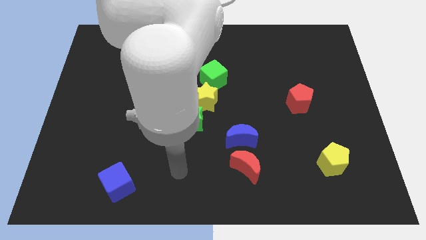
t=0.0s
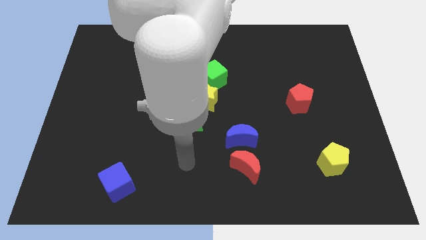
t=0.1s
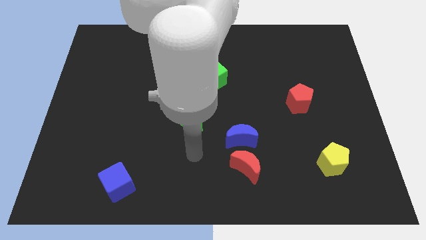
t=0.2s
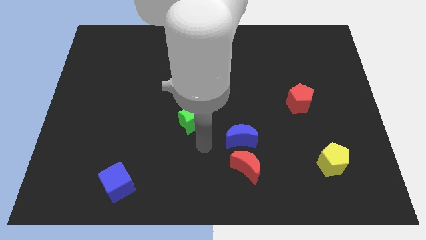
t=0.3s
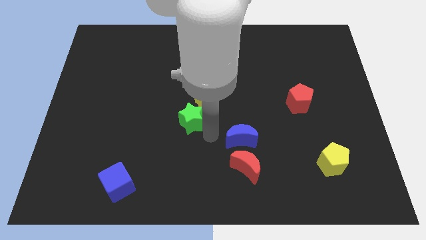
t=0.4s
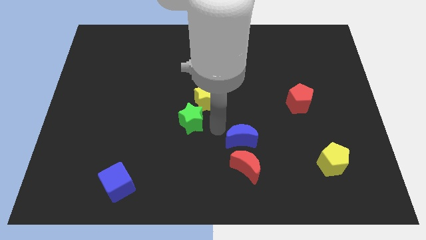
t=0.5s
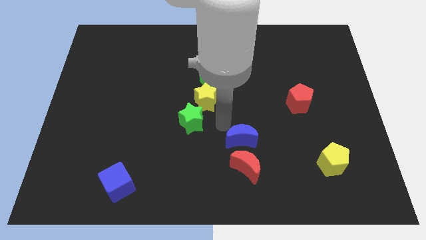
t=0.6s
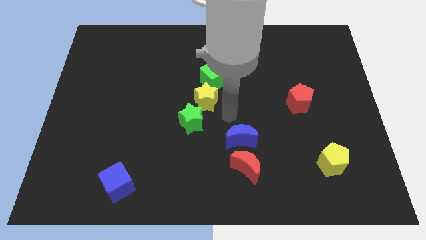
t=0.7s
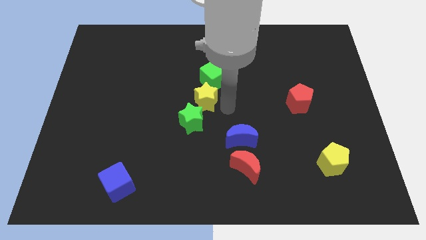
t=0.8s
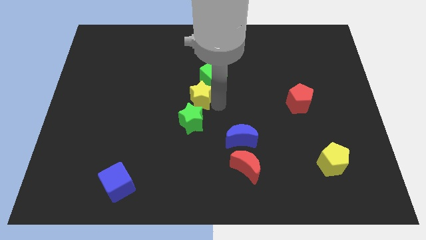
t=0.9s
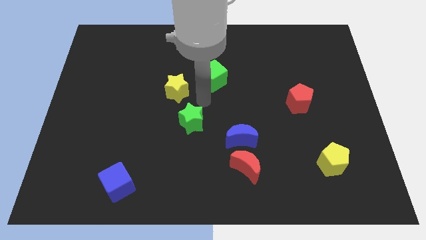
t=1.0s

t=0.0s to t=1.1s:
pull the green star apart from the yellow star

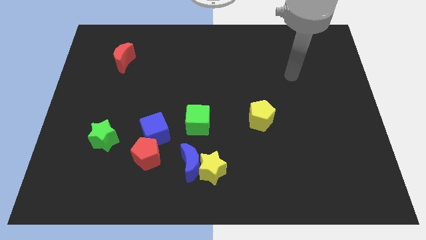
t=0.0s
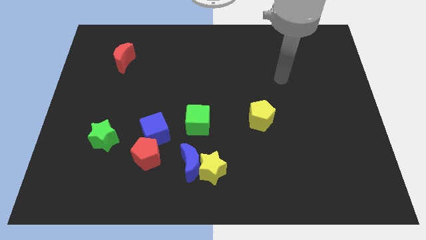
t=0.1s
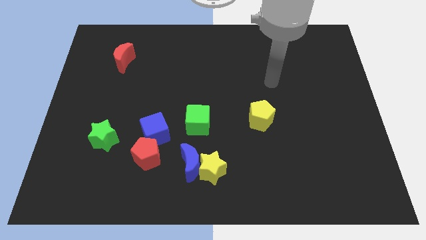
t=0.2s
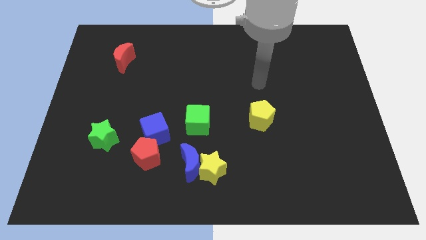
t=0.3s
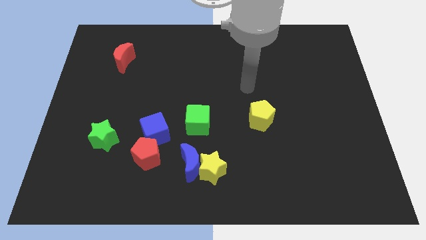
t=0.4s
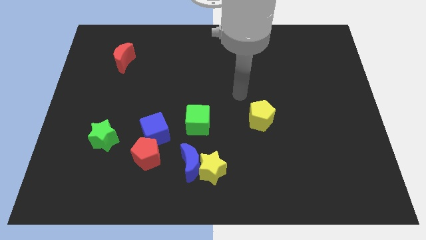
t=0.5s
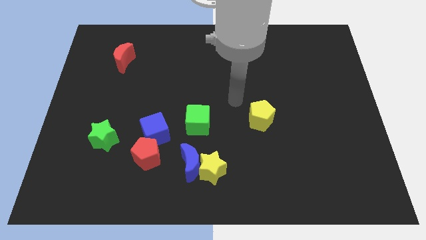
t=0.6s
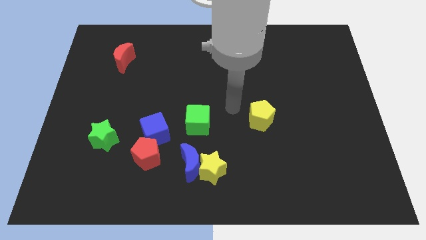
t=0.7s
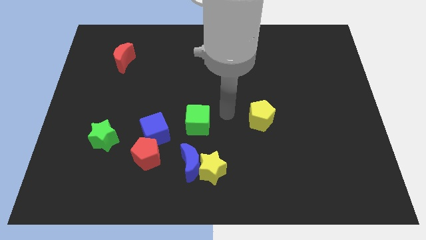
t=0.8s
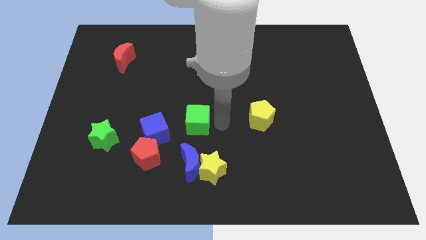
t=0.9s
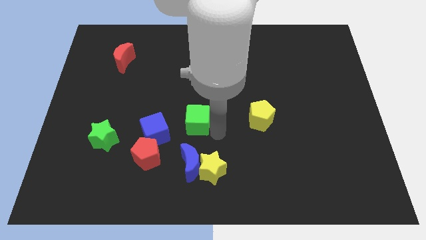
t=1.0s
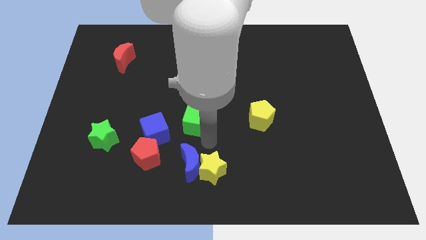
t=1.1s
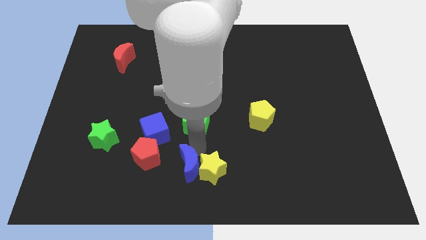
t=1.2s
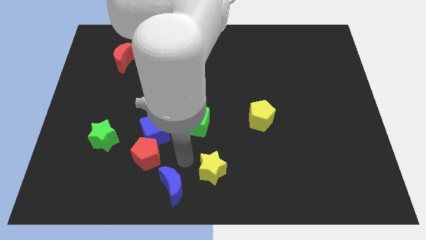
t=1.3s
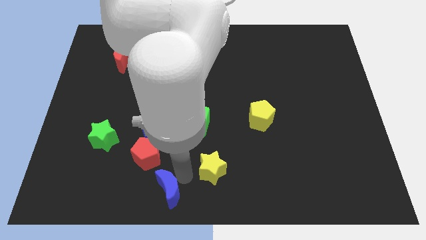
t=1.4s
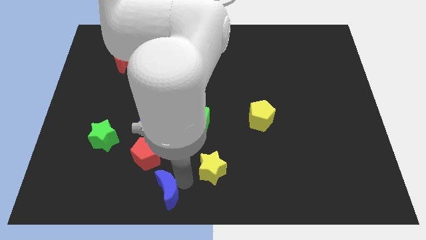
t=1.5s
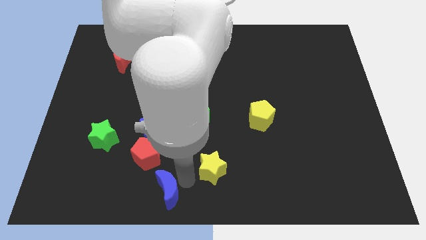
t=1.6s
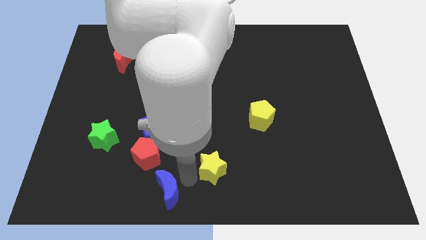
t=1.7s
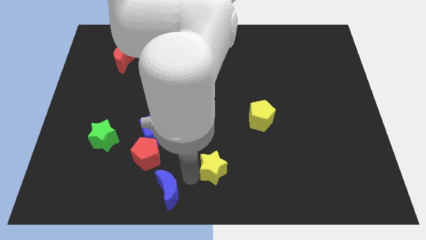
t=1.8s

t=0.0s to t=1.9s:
move the yellow star away from the blue moon

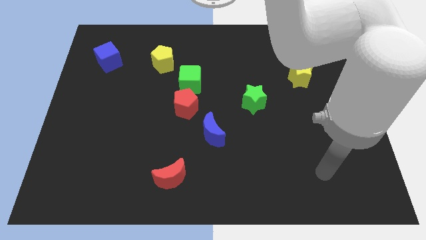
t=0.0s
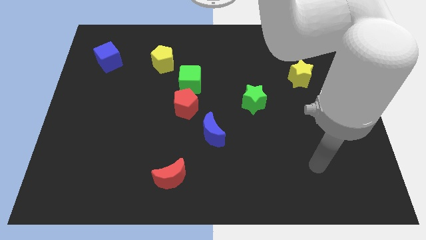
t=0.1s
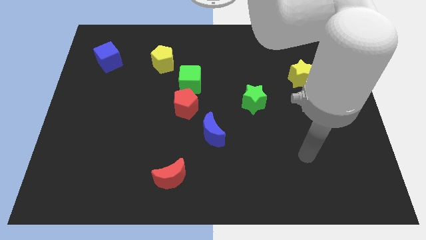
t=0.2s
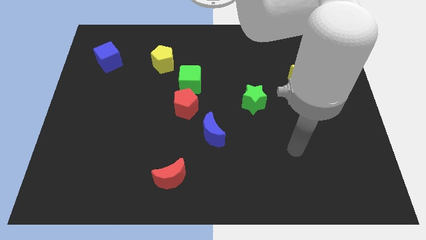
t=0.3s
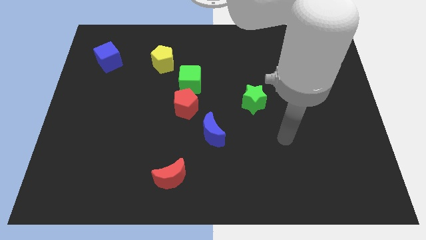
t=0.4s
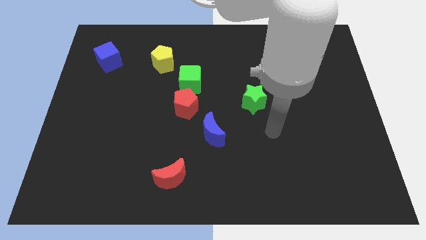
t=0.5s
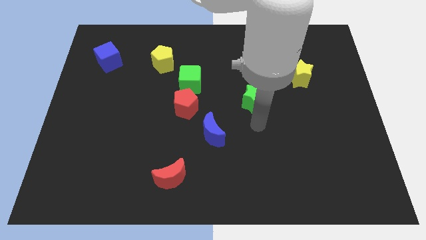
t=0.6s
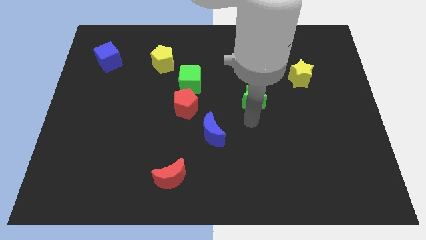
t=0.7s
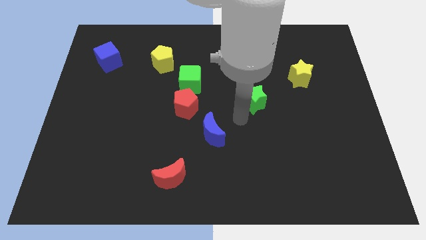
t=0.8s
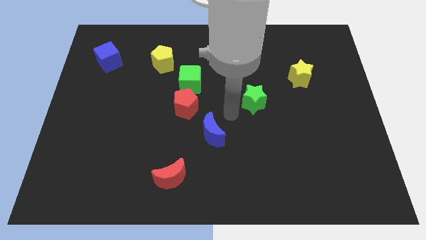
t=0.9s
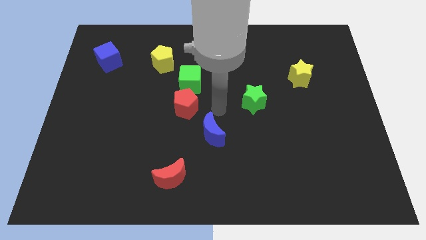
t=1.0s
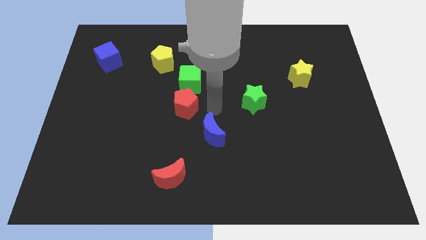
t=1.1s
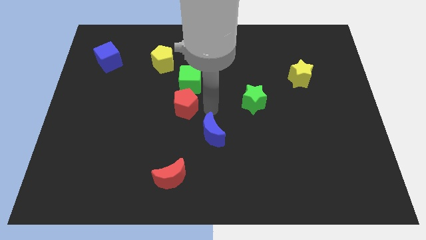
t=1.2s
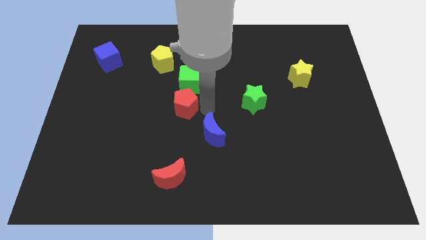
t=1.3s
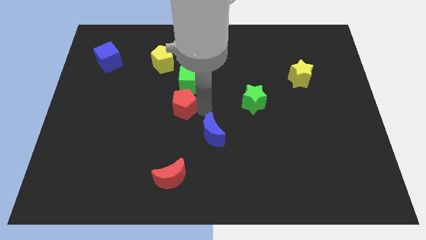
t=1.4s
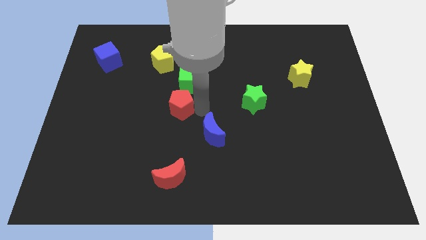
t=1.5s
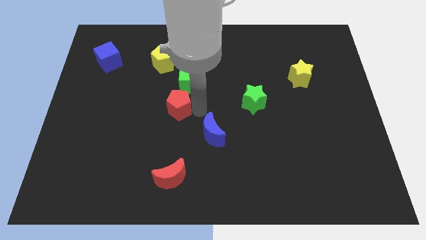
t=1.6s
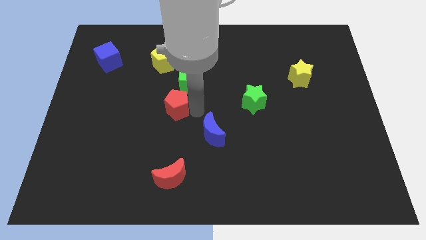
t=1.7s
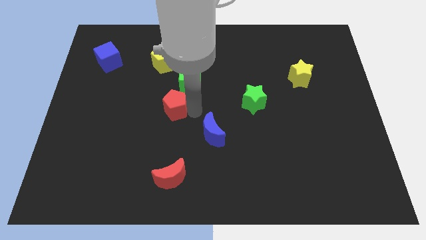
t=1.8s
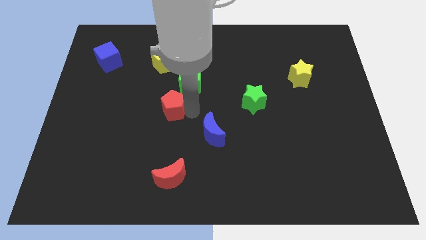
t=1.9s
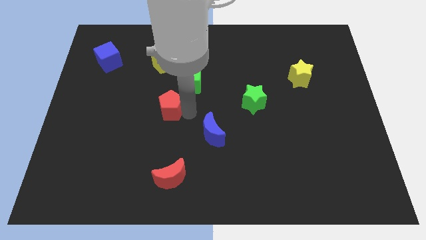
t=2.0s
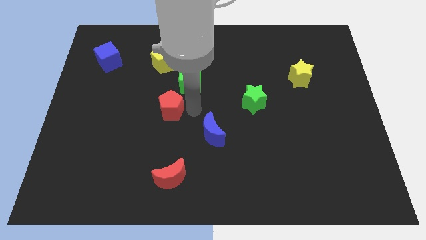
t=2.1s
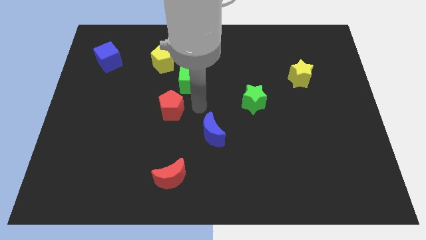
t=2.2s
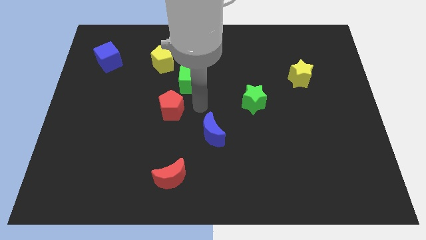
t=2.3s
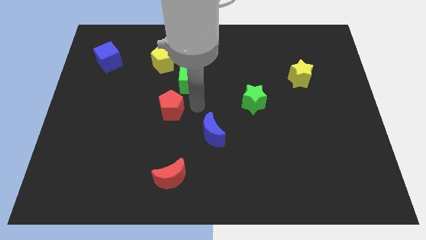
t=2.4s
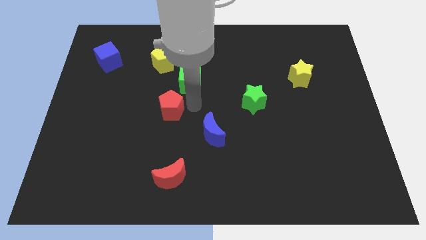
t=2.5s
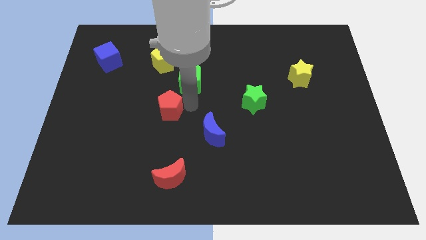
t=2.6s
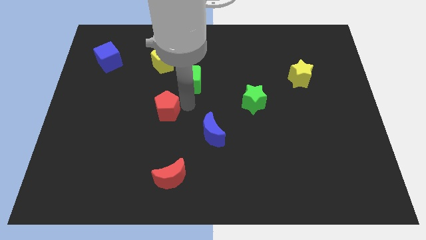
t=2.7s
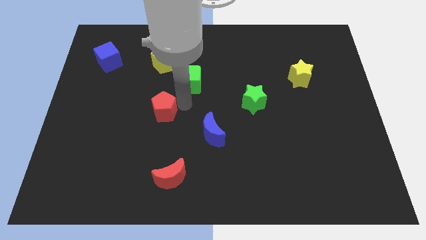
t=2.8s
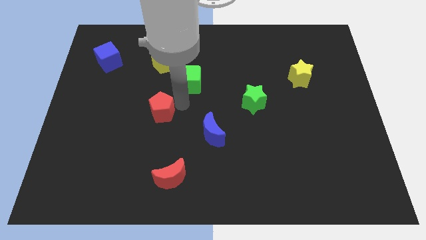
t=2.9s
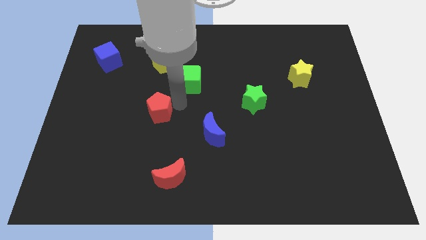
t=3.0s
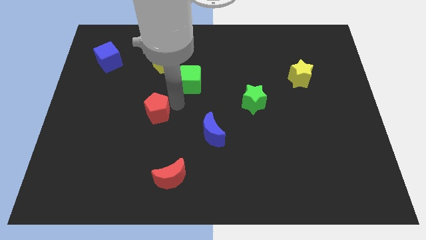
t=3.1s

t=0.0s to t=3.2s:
move the red pentagon away from the green cube and blue moon

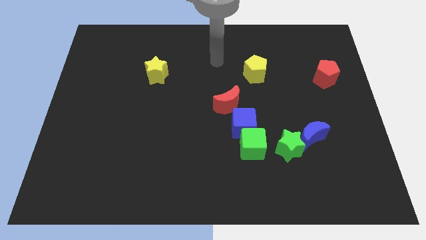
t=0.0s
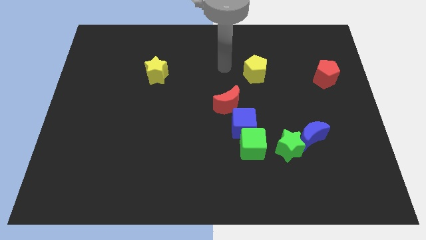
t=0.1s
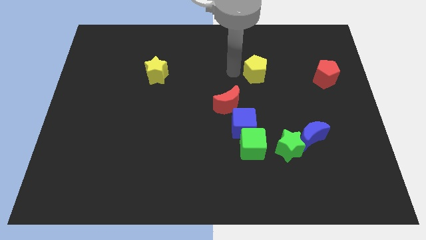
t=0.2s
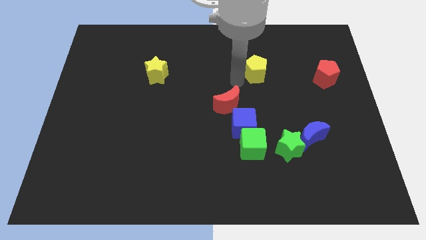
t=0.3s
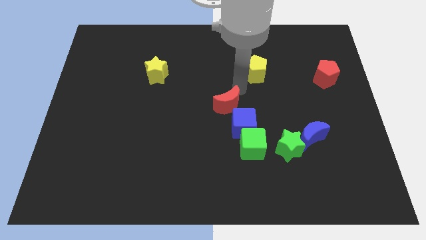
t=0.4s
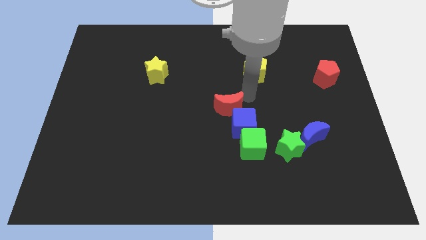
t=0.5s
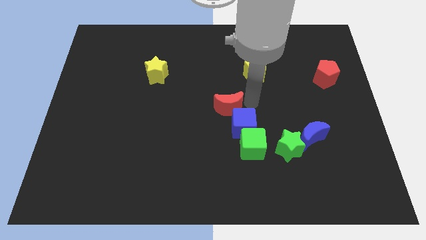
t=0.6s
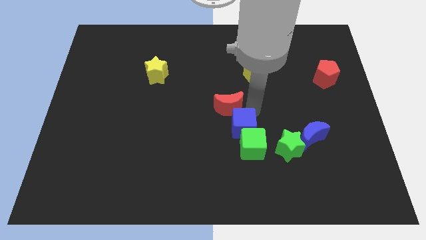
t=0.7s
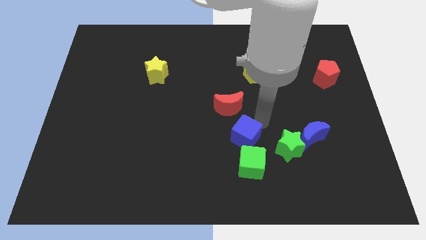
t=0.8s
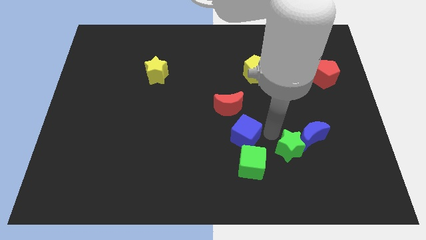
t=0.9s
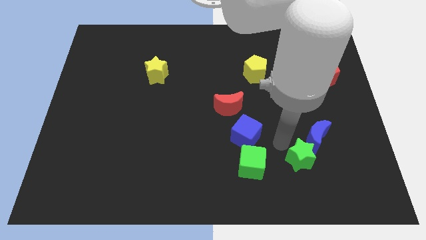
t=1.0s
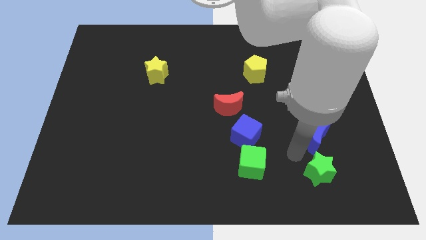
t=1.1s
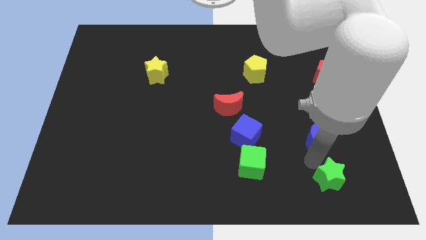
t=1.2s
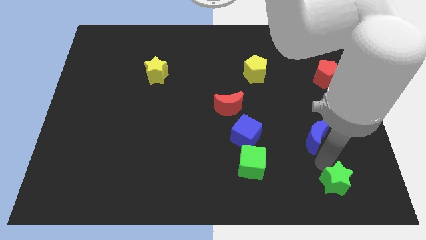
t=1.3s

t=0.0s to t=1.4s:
pull the blue moon apart from the green star

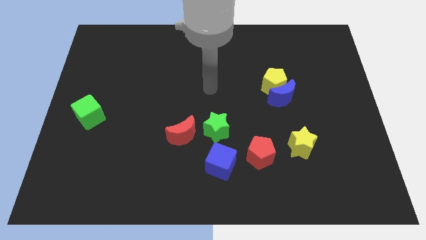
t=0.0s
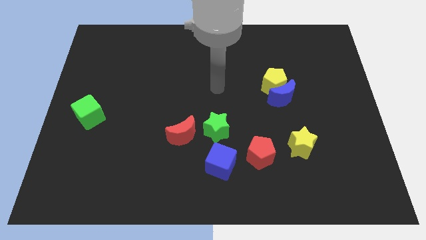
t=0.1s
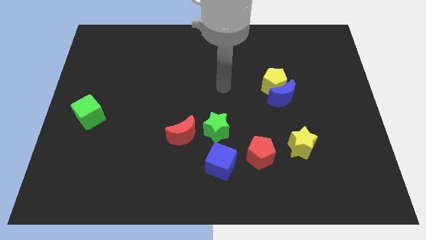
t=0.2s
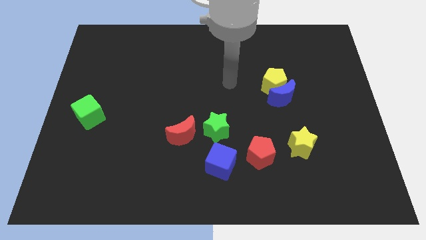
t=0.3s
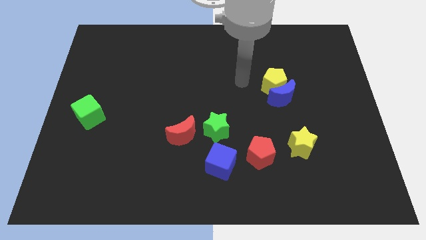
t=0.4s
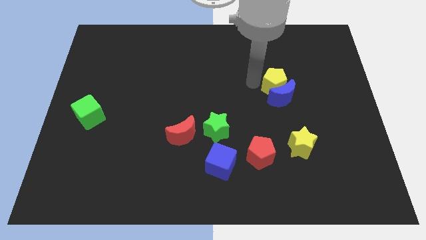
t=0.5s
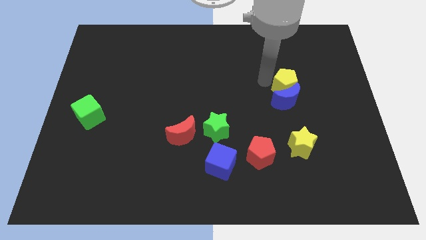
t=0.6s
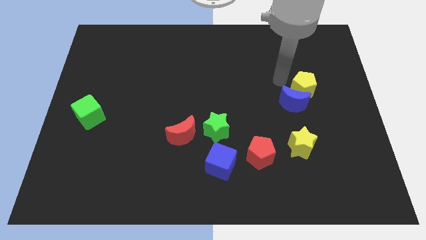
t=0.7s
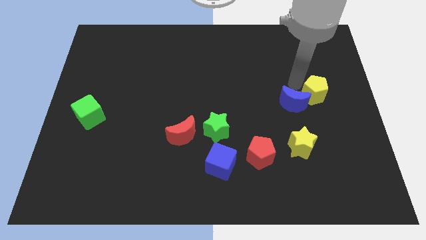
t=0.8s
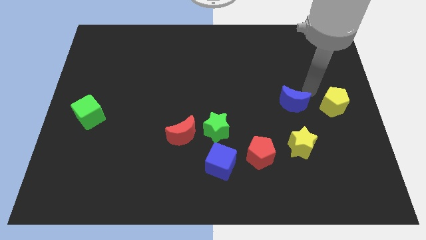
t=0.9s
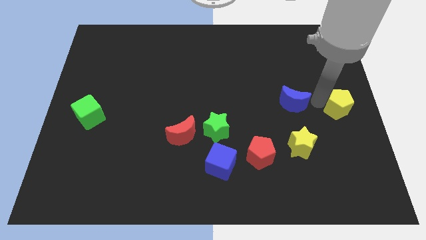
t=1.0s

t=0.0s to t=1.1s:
move the blue moon away from the yellow pentagon

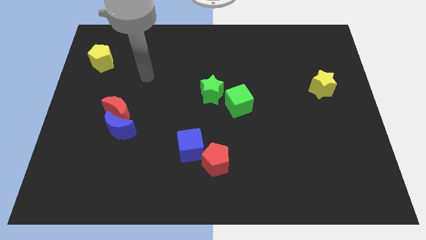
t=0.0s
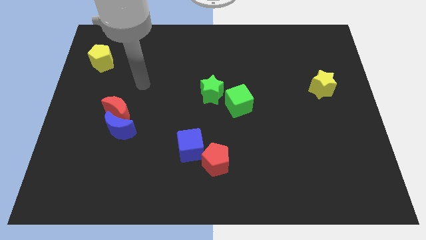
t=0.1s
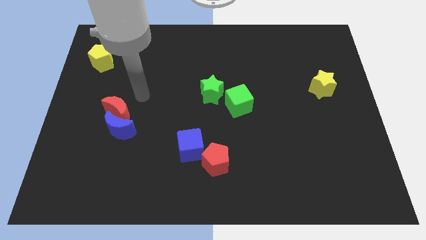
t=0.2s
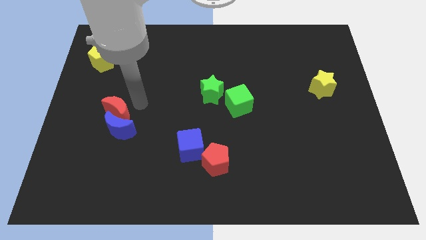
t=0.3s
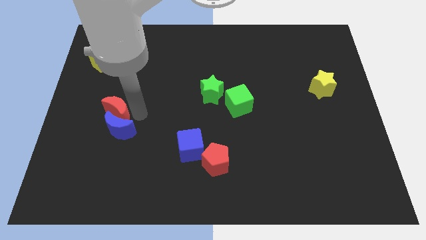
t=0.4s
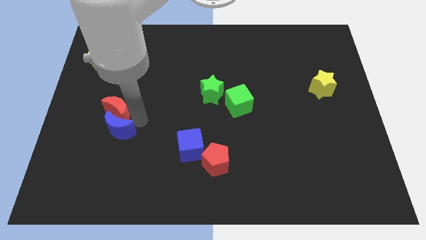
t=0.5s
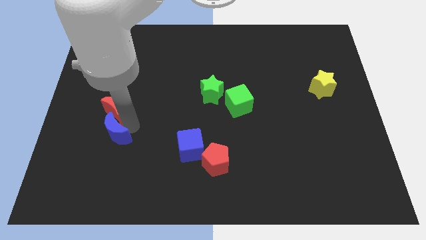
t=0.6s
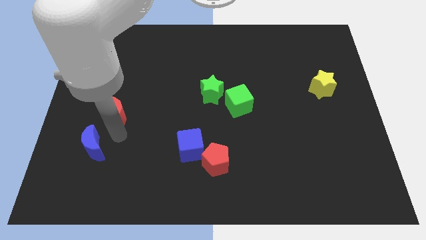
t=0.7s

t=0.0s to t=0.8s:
move the red moon away from the blue moon
